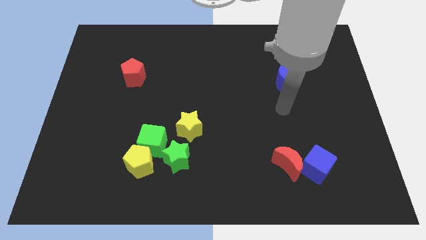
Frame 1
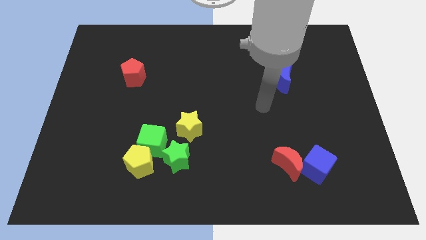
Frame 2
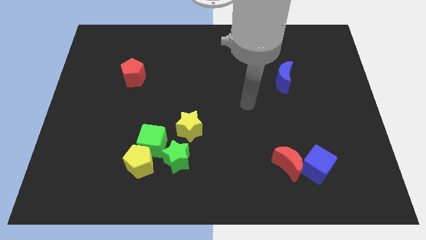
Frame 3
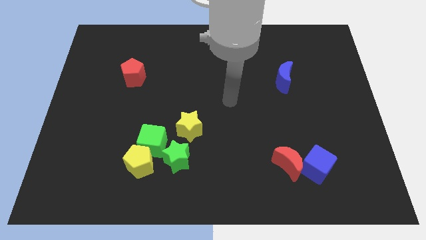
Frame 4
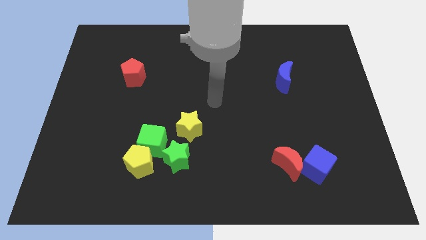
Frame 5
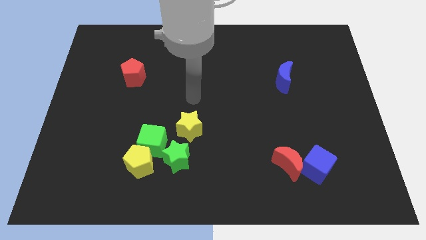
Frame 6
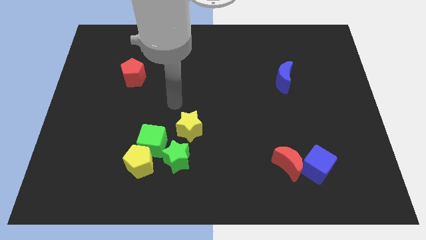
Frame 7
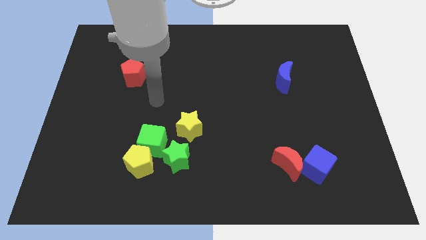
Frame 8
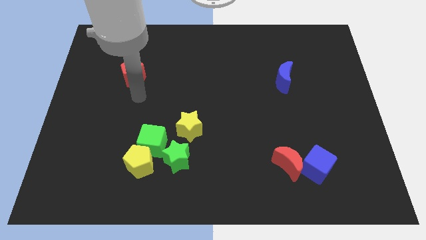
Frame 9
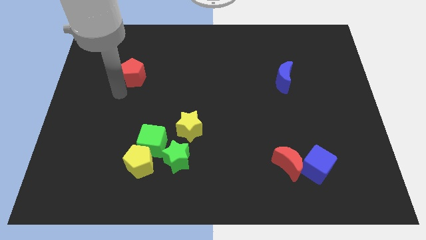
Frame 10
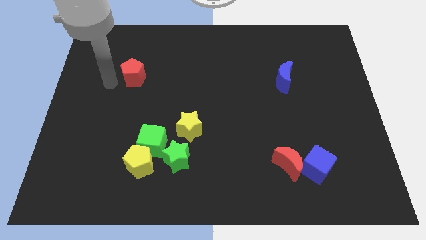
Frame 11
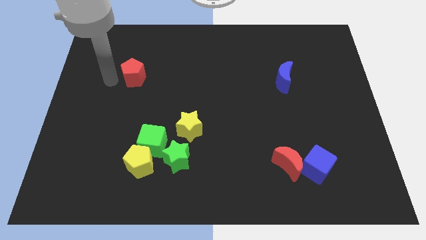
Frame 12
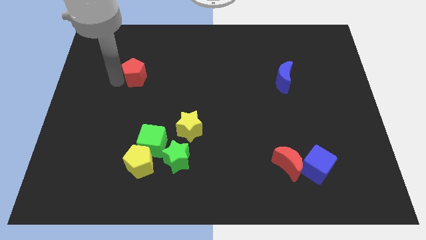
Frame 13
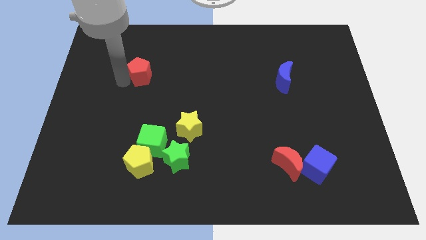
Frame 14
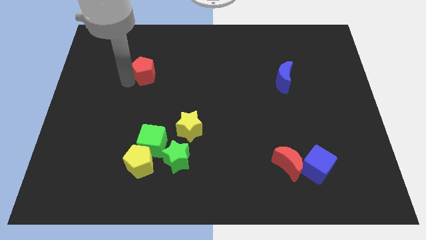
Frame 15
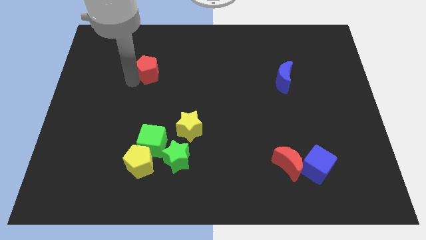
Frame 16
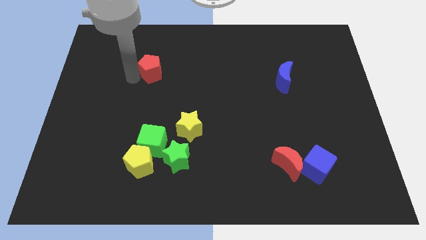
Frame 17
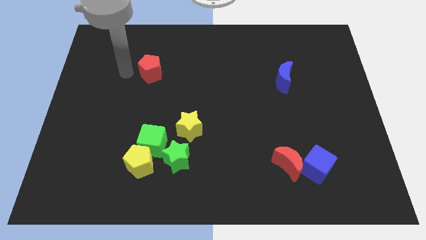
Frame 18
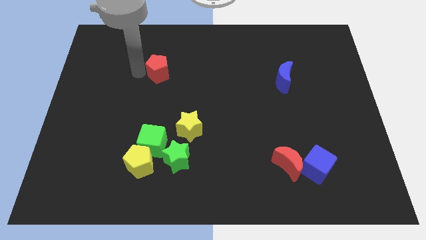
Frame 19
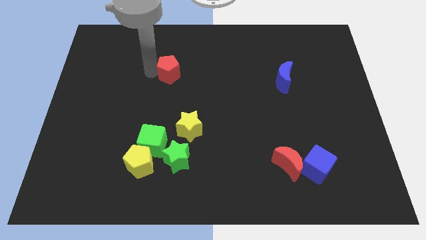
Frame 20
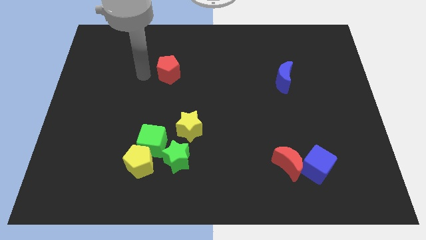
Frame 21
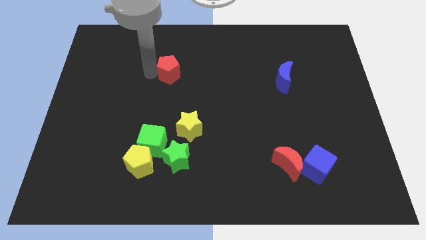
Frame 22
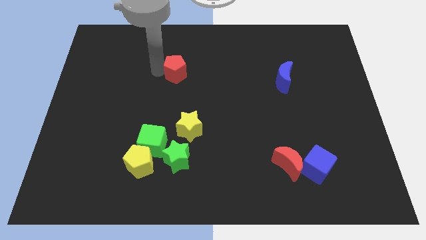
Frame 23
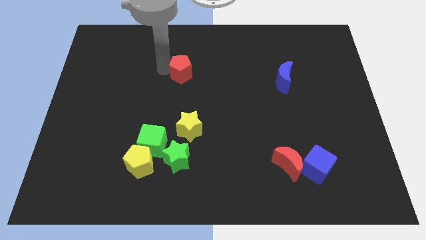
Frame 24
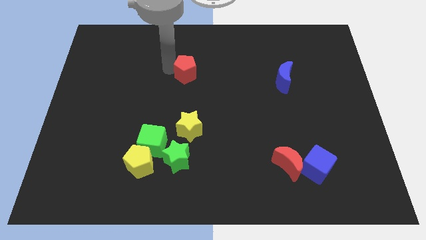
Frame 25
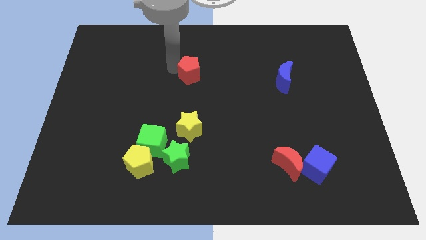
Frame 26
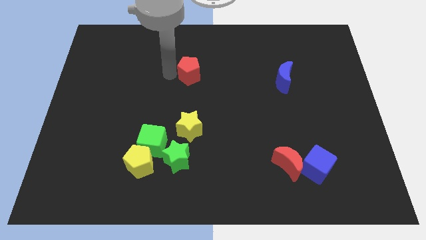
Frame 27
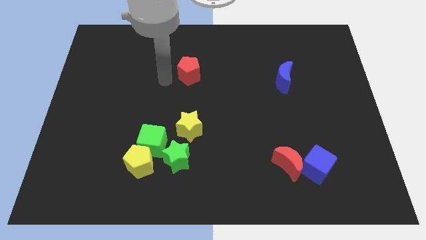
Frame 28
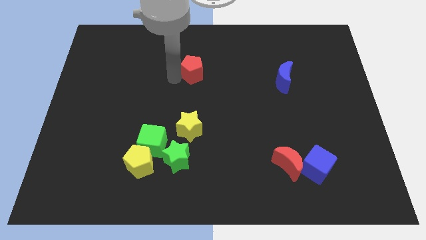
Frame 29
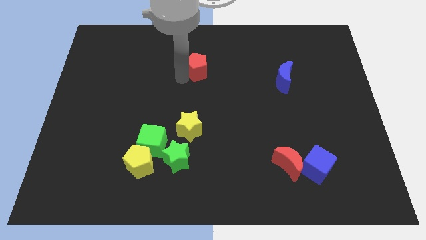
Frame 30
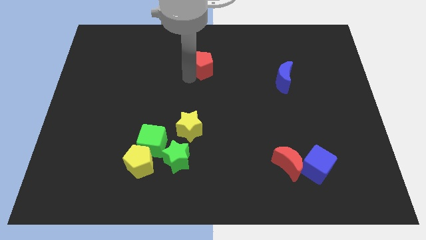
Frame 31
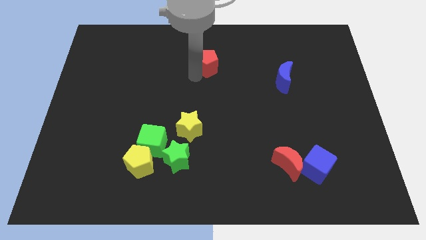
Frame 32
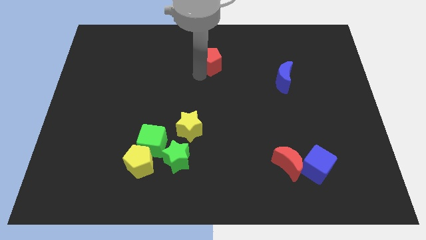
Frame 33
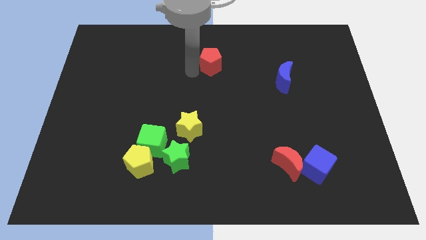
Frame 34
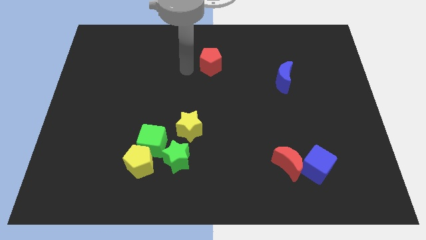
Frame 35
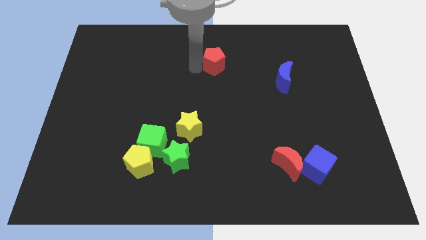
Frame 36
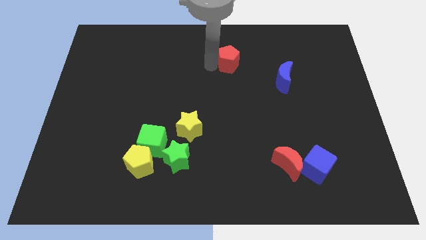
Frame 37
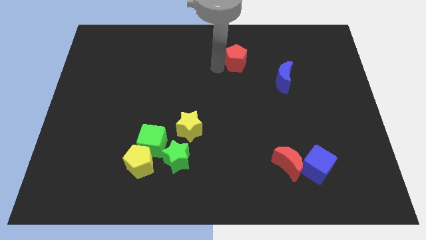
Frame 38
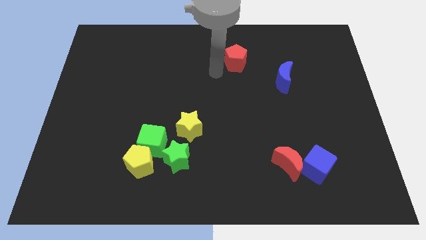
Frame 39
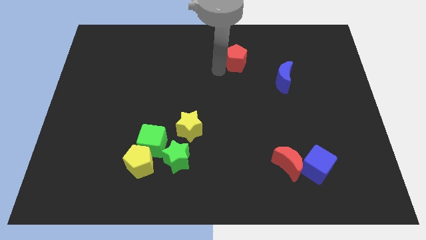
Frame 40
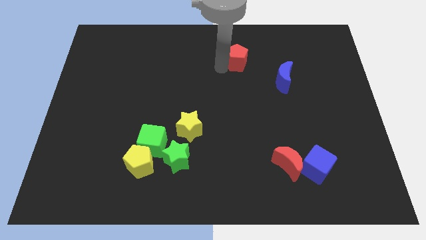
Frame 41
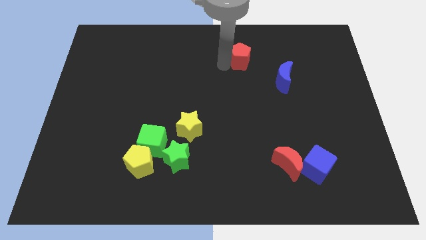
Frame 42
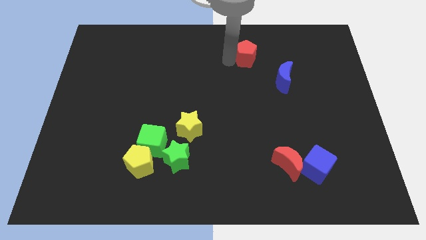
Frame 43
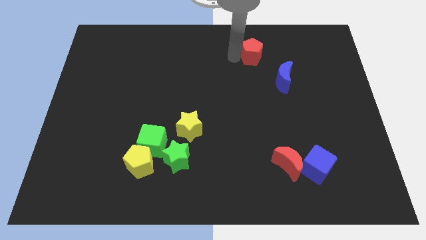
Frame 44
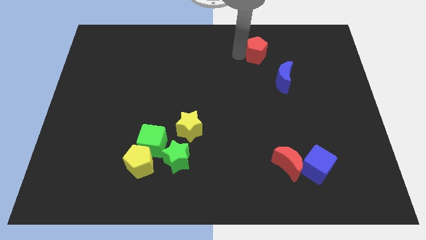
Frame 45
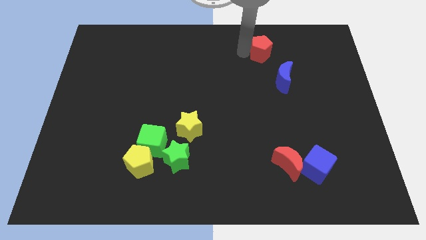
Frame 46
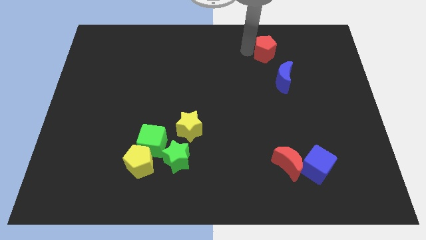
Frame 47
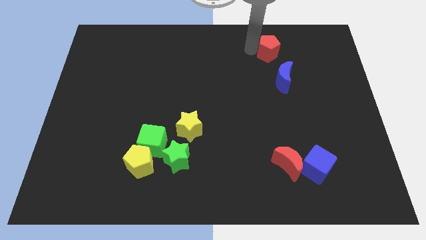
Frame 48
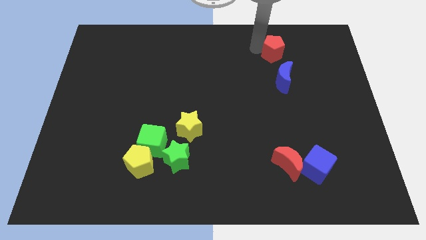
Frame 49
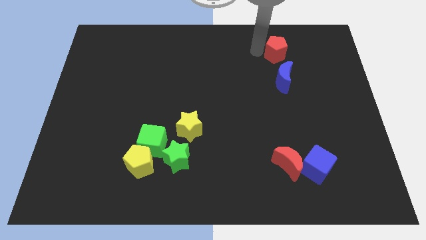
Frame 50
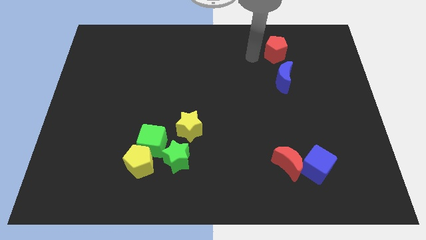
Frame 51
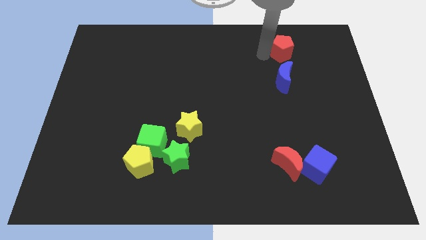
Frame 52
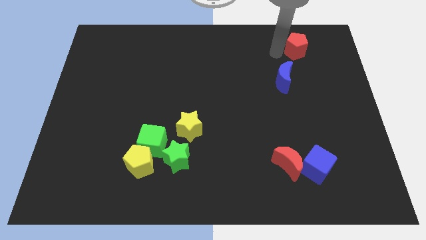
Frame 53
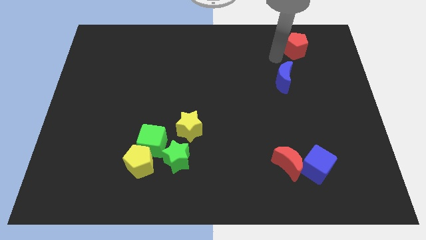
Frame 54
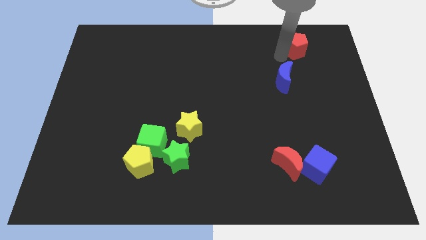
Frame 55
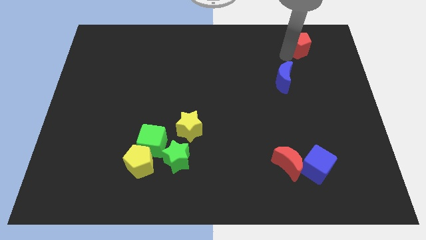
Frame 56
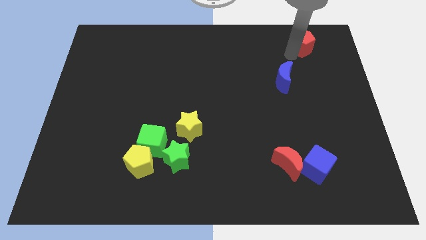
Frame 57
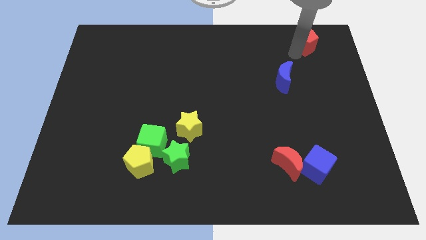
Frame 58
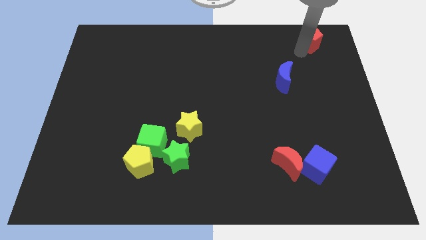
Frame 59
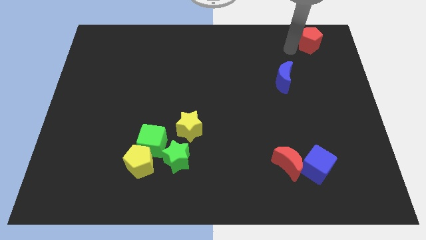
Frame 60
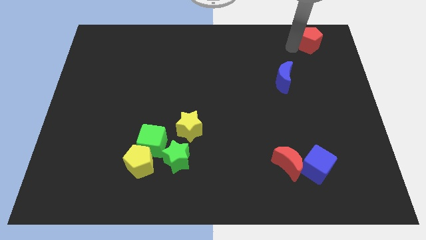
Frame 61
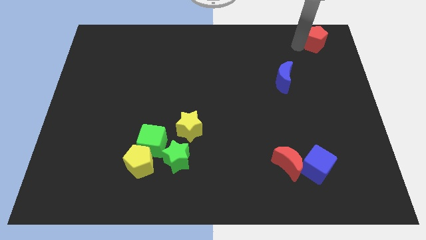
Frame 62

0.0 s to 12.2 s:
put the red pentagon to the upper right corner

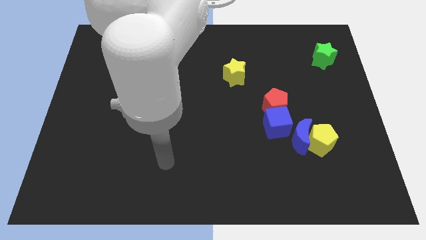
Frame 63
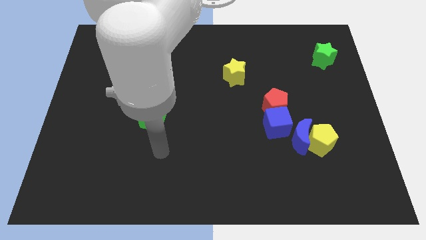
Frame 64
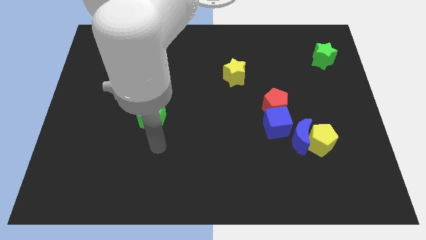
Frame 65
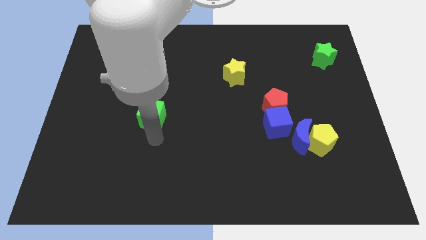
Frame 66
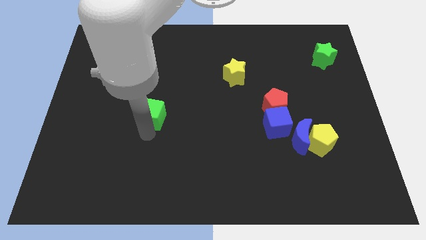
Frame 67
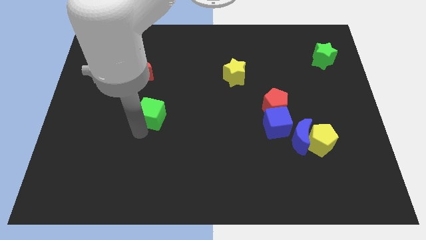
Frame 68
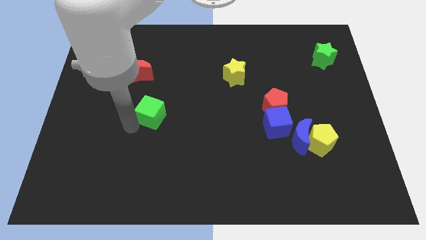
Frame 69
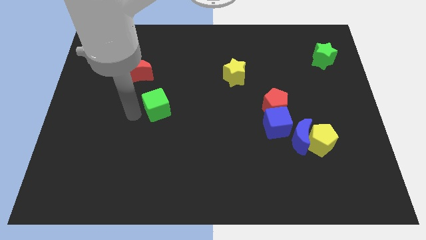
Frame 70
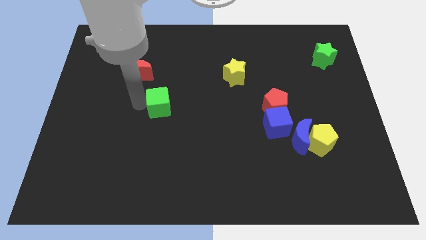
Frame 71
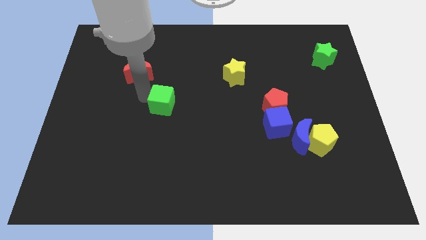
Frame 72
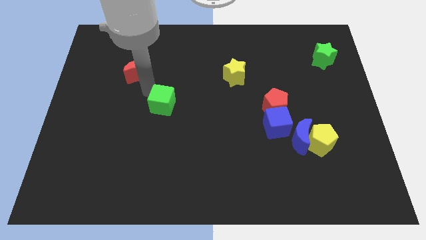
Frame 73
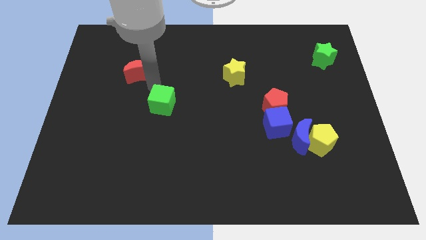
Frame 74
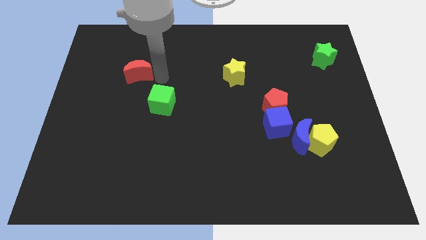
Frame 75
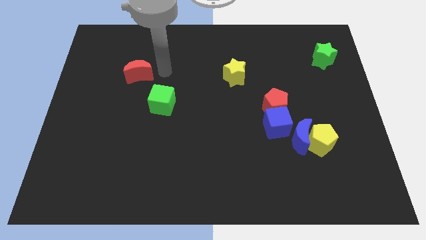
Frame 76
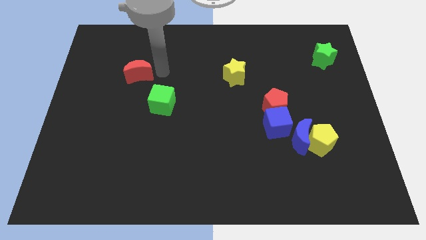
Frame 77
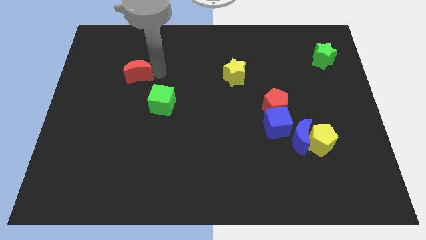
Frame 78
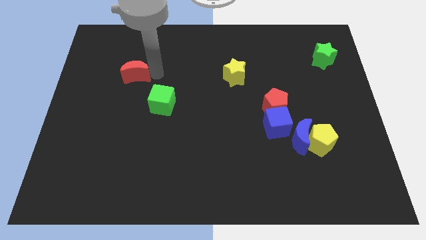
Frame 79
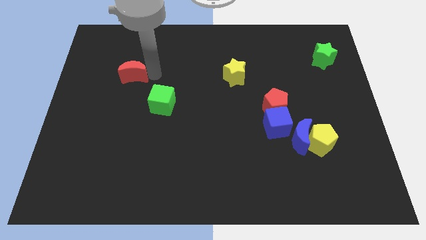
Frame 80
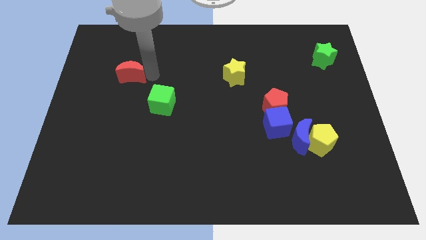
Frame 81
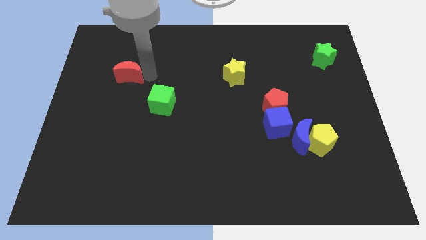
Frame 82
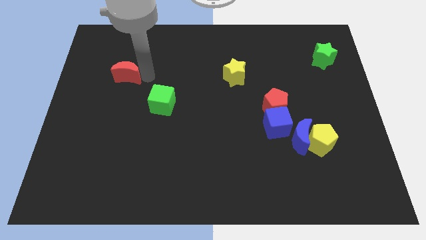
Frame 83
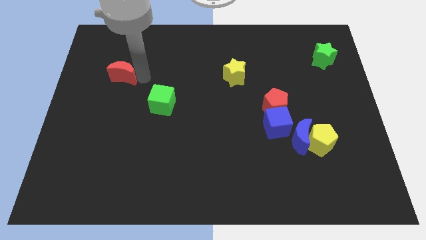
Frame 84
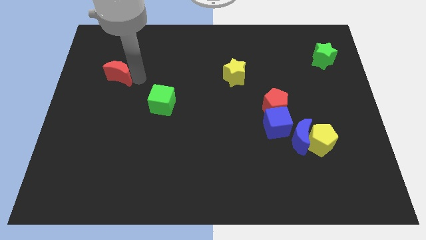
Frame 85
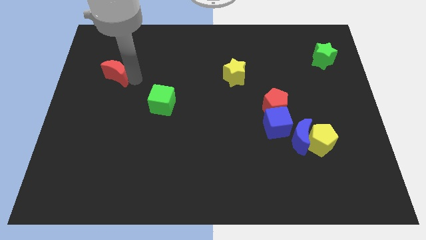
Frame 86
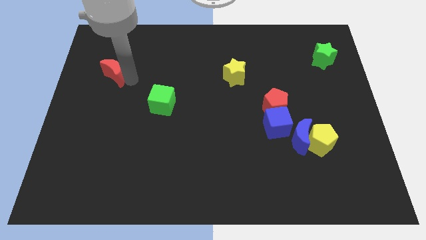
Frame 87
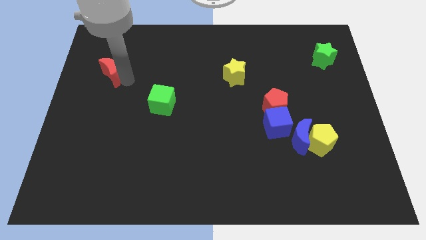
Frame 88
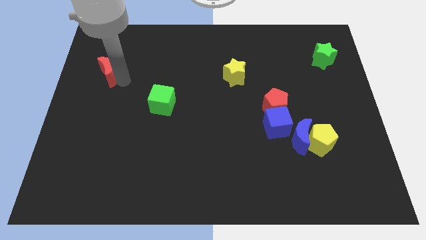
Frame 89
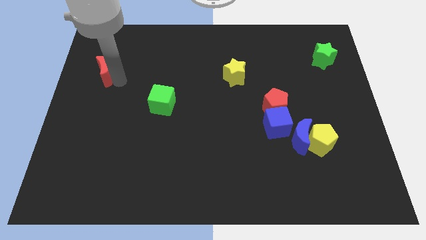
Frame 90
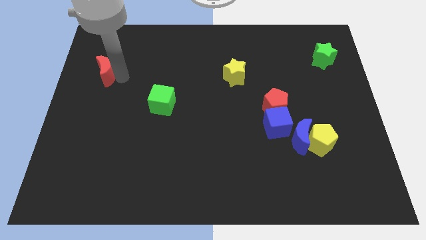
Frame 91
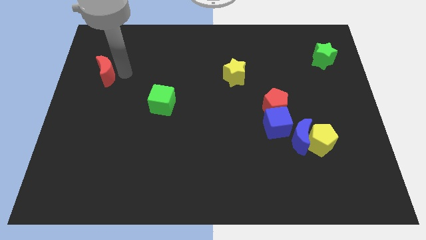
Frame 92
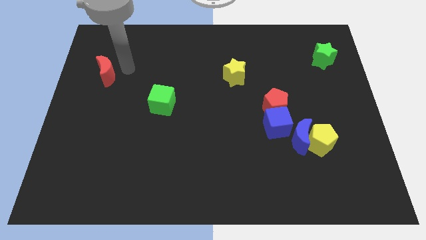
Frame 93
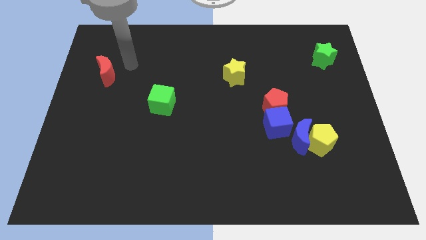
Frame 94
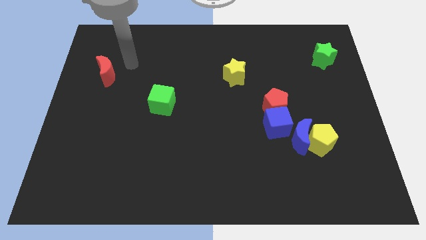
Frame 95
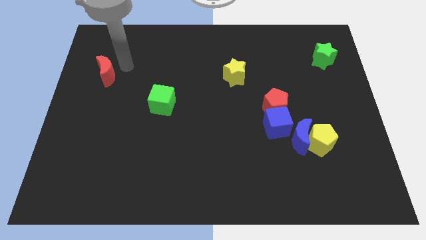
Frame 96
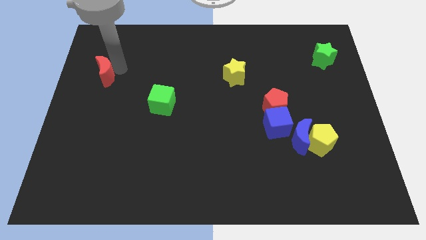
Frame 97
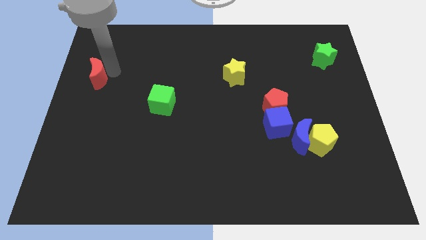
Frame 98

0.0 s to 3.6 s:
put the red moon to the left side
